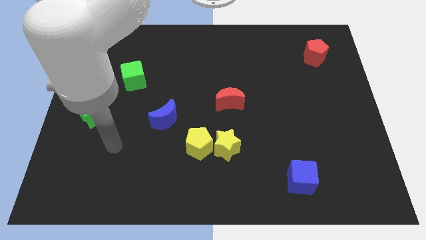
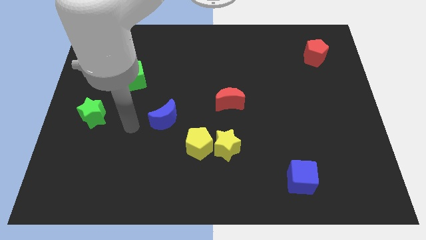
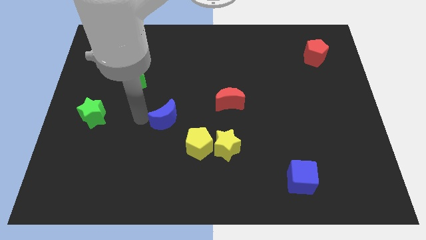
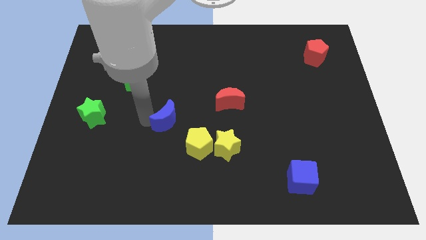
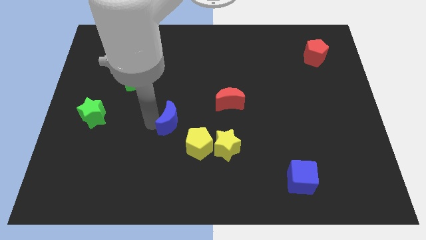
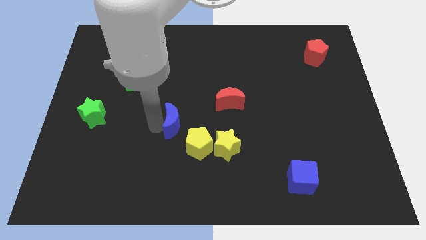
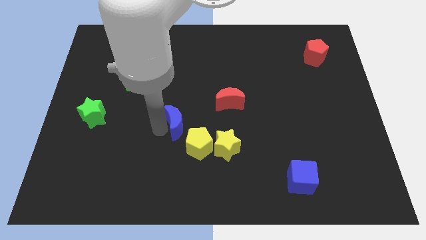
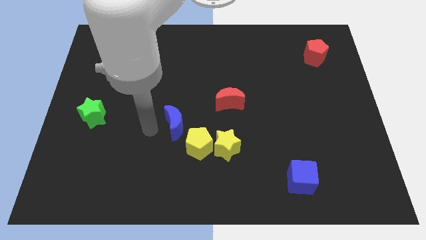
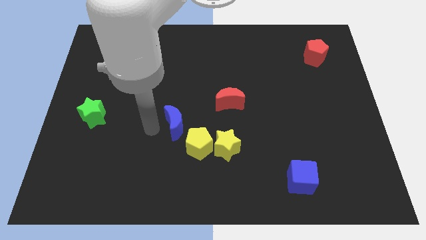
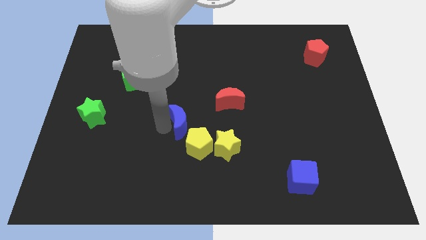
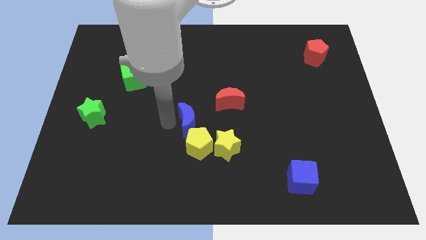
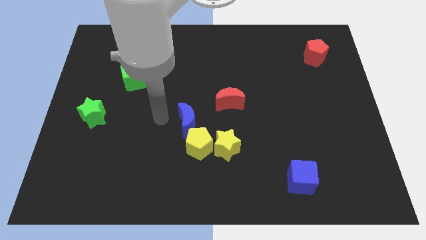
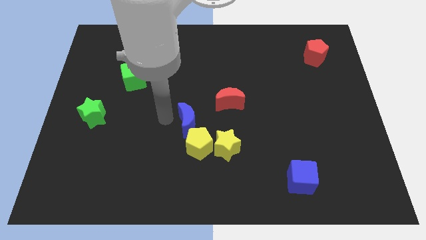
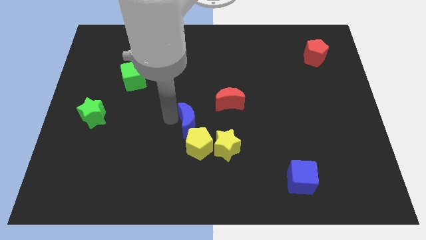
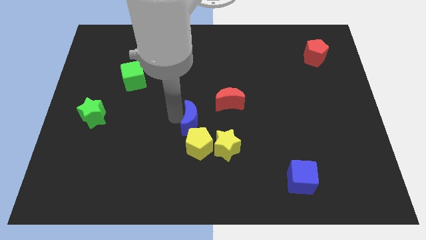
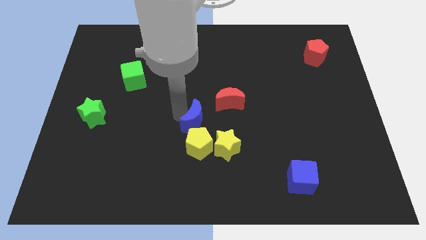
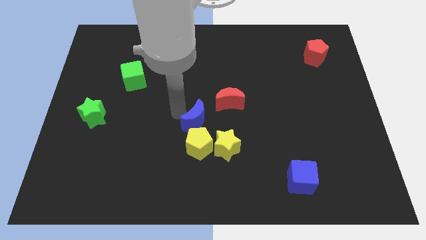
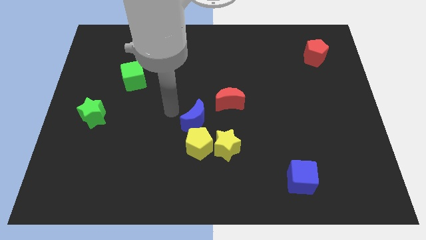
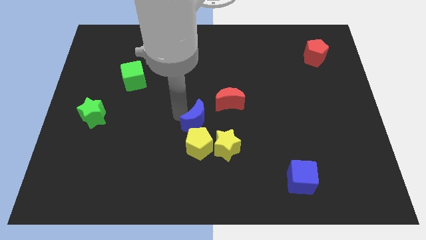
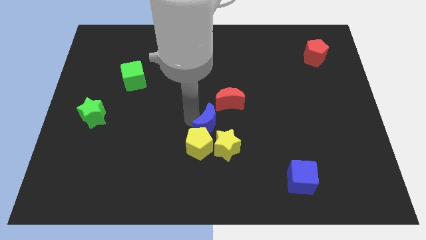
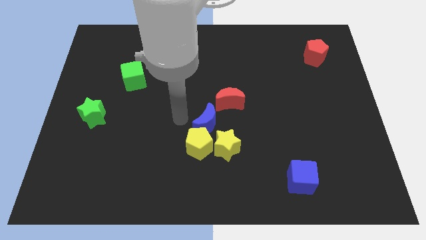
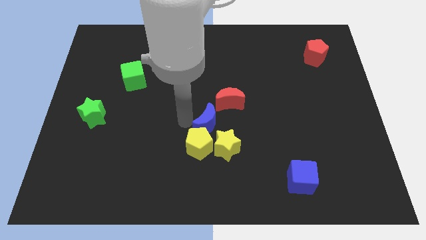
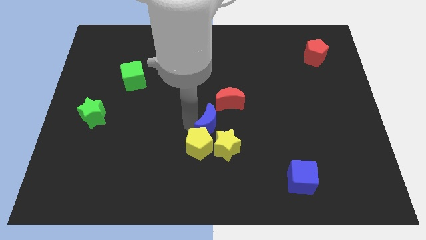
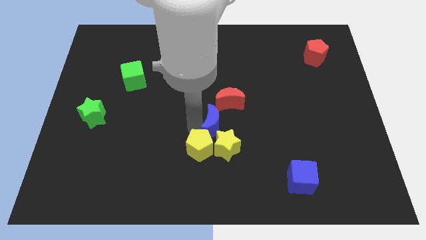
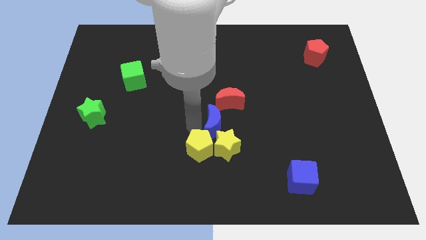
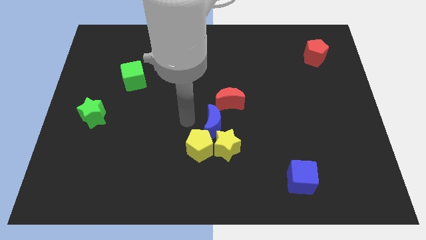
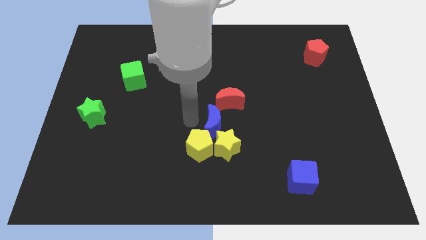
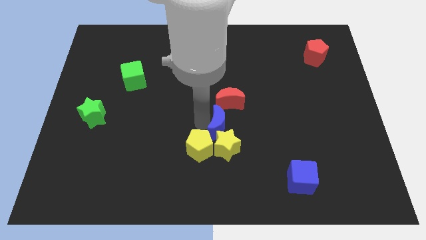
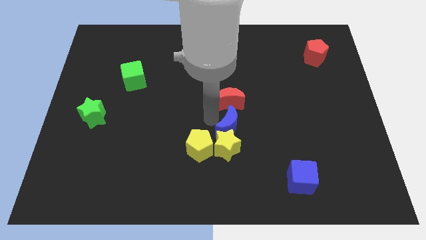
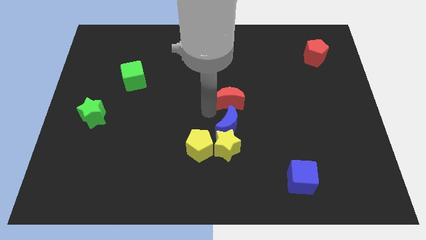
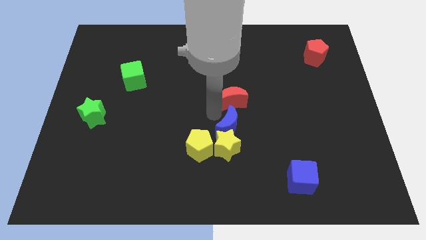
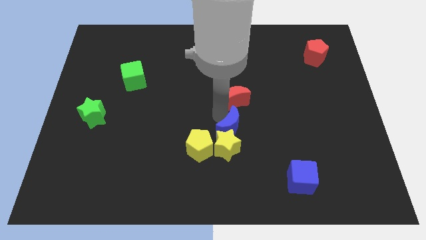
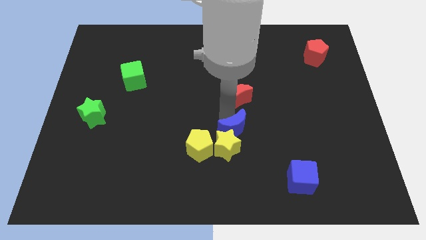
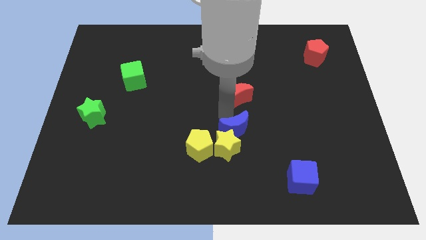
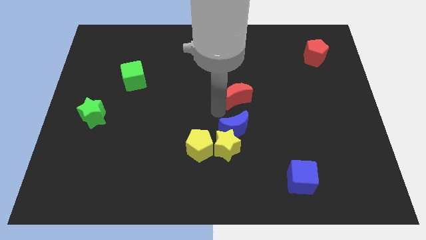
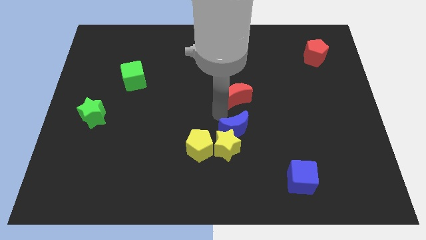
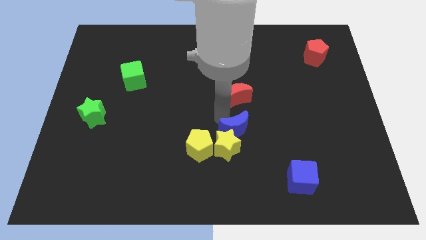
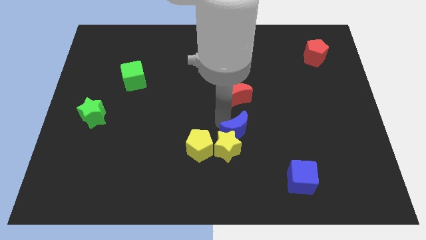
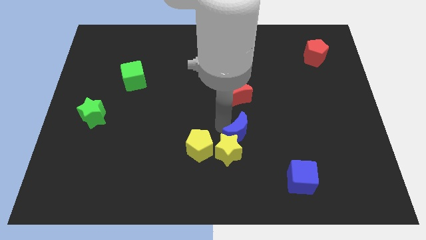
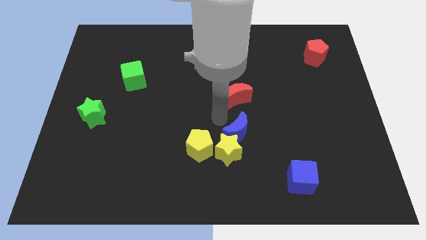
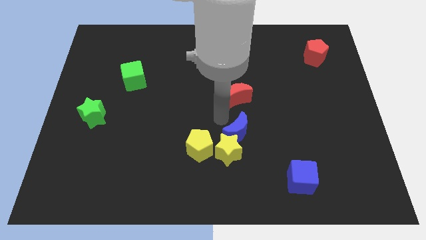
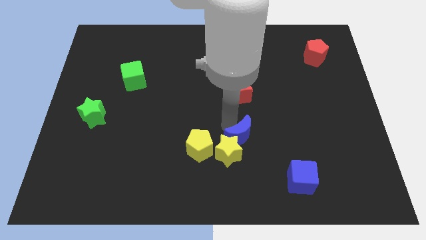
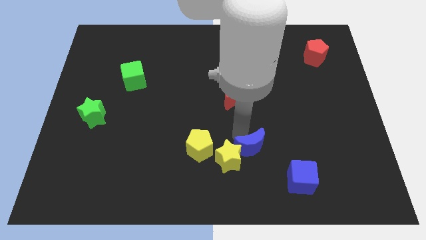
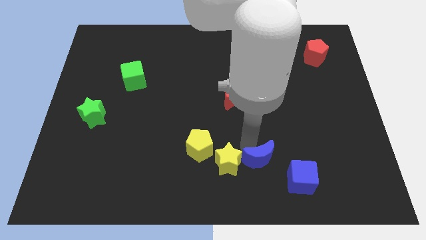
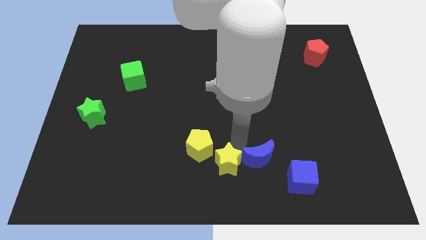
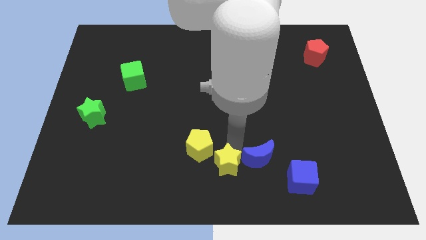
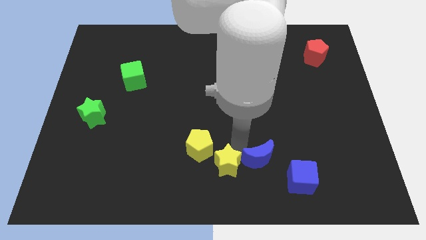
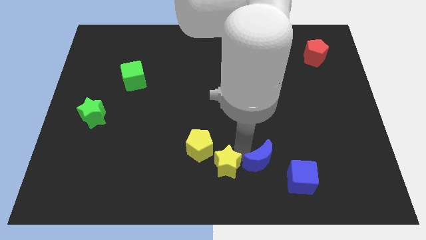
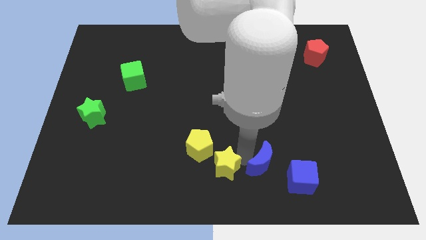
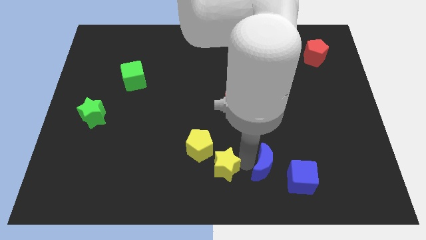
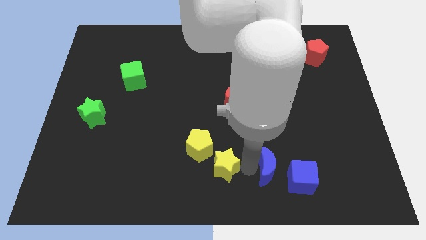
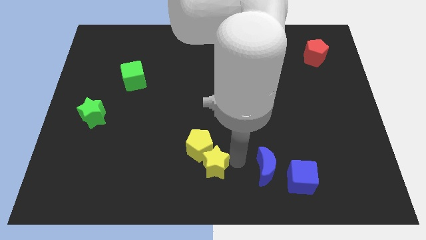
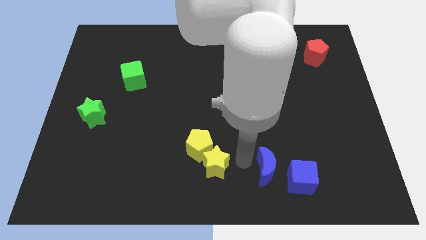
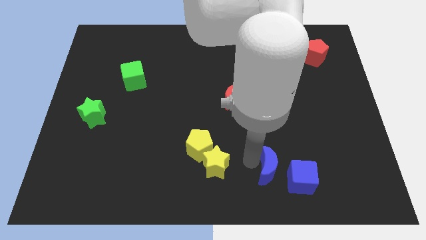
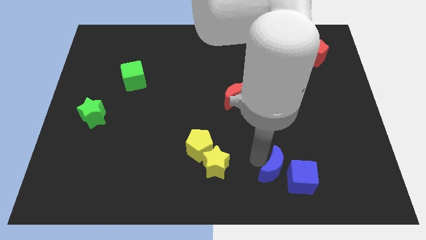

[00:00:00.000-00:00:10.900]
move the blue moon close to the blue cube

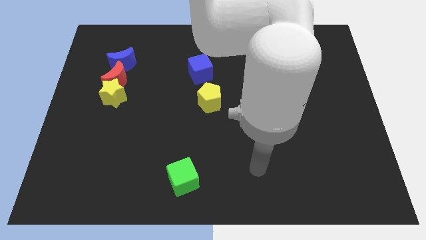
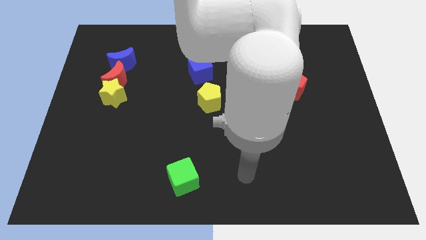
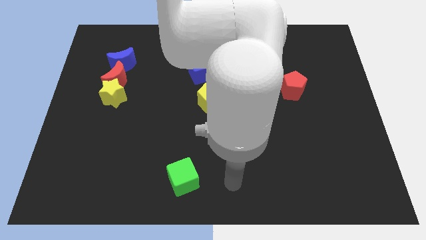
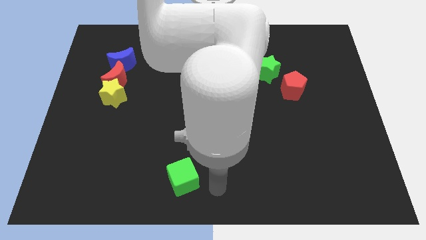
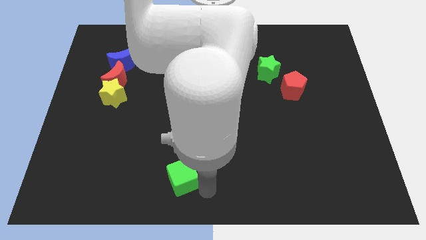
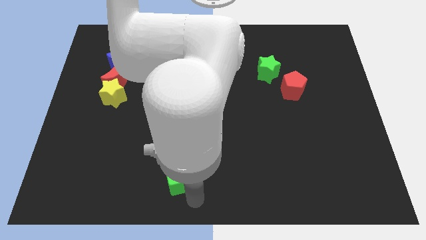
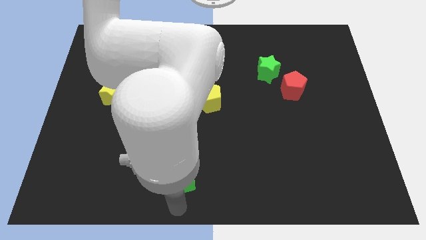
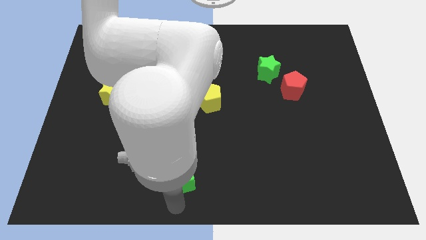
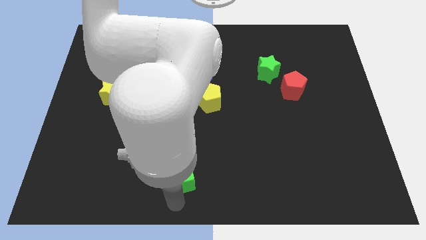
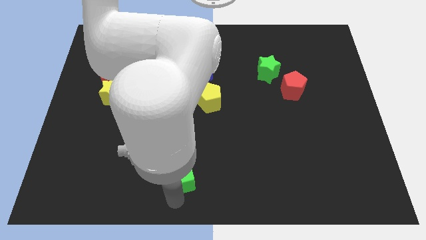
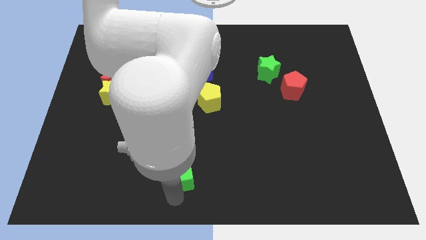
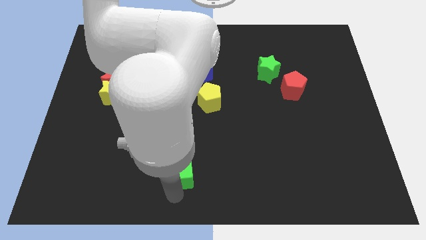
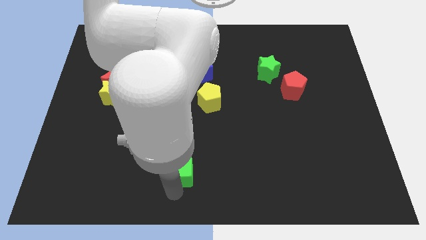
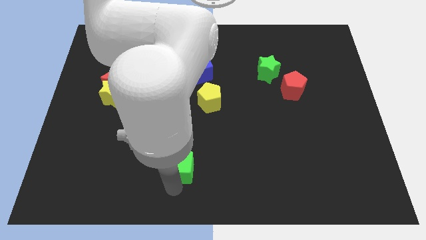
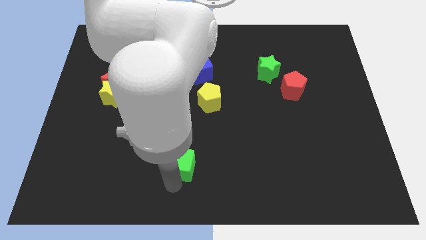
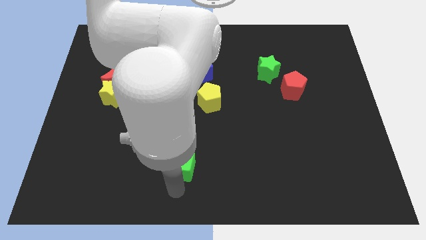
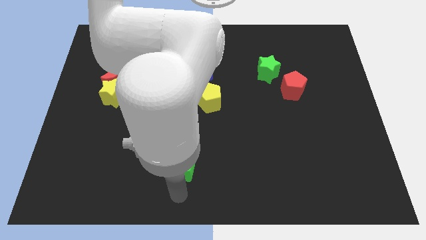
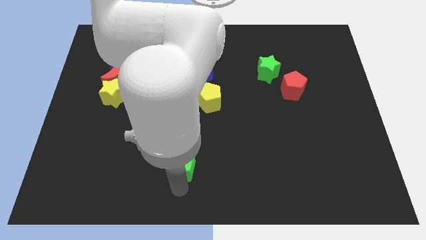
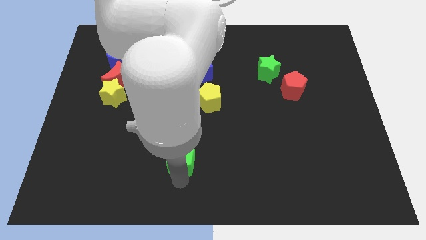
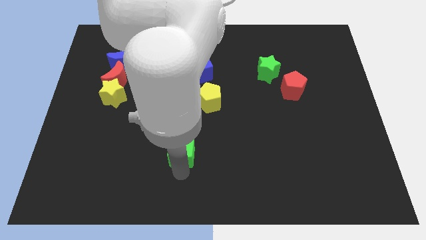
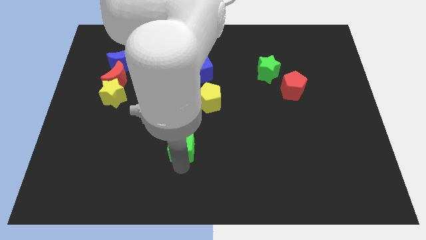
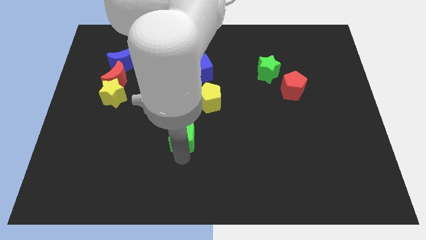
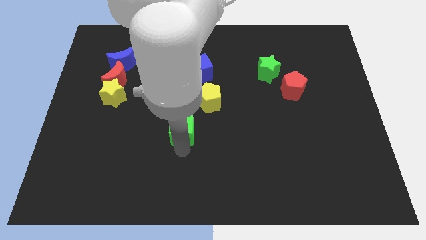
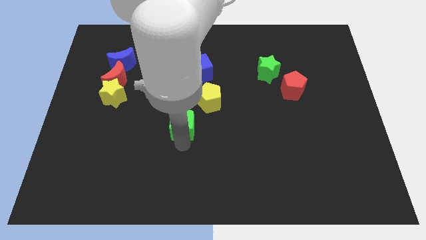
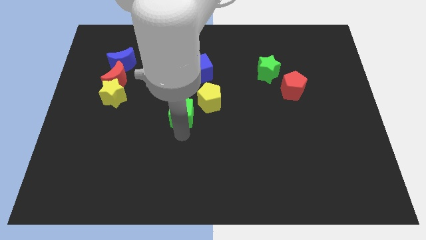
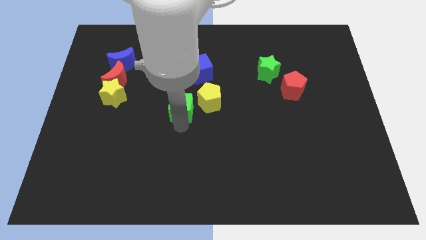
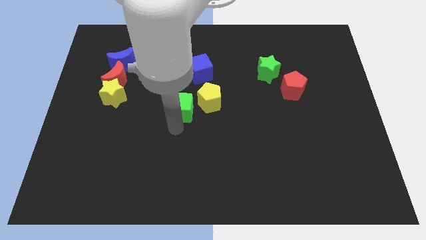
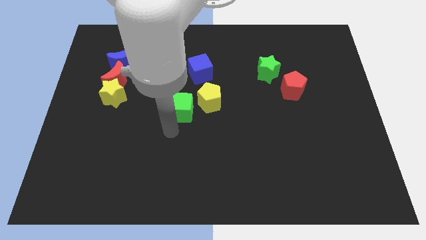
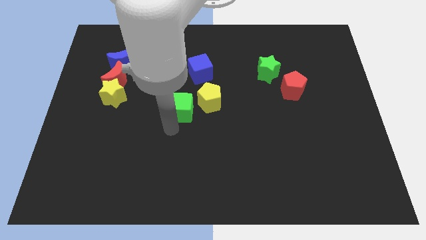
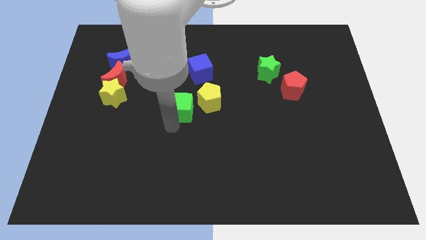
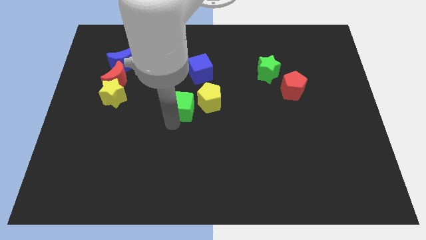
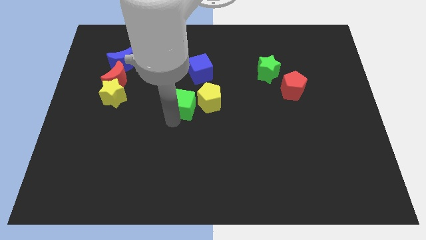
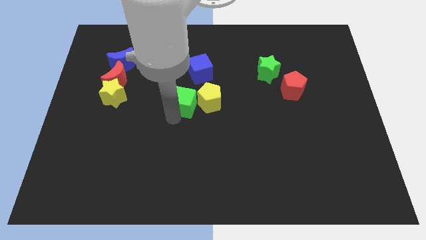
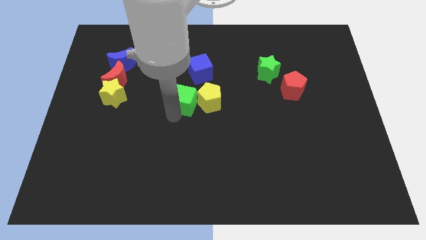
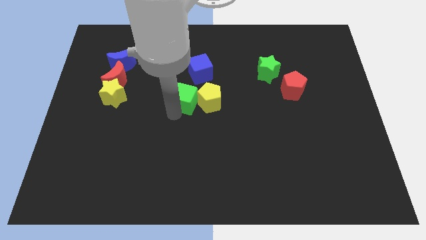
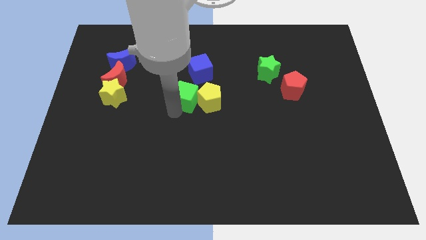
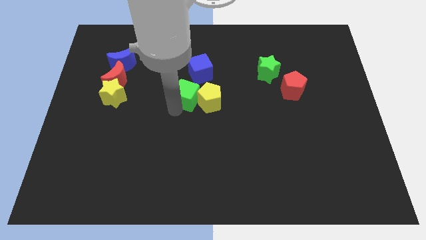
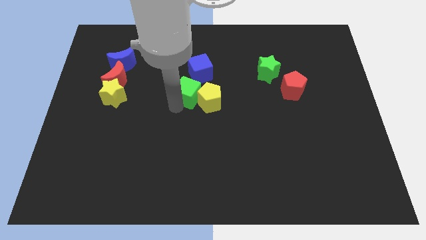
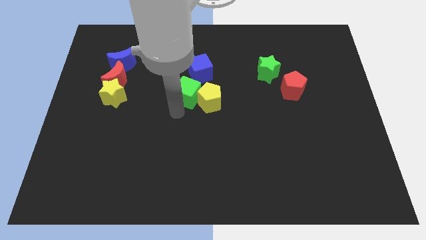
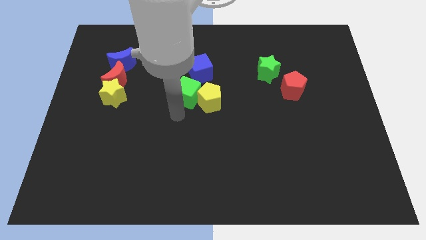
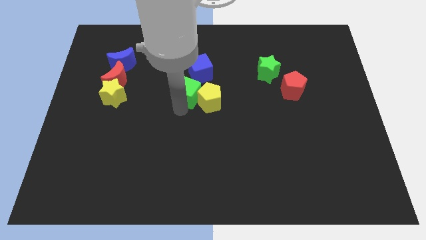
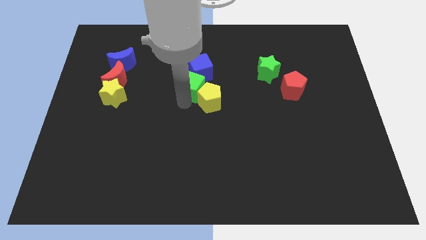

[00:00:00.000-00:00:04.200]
put the green cube towards the blue cube
